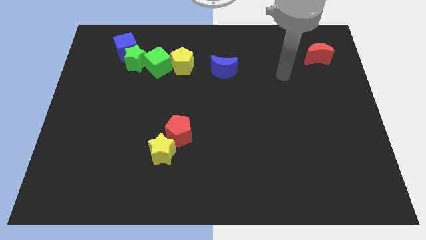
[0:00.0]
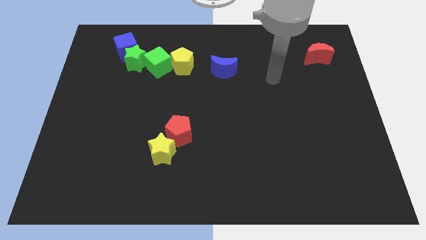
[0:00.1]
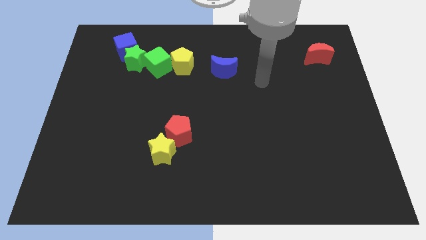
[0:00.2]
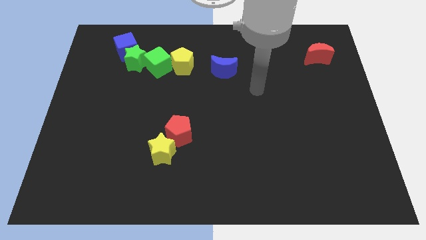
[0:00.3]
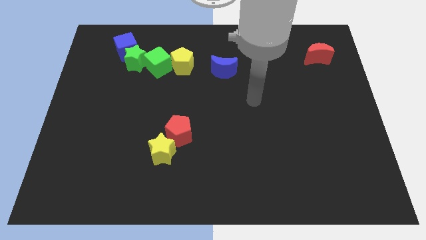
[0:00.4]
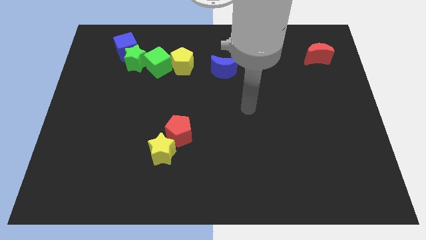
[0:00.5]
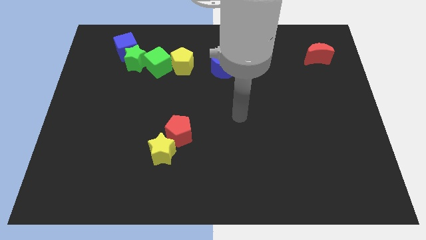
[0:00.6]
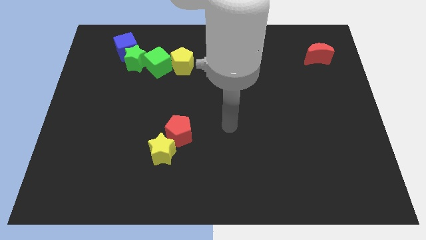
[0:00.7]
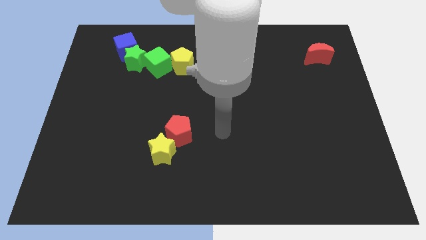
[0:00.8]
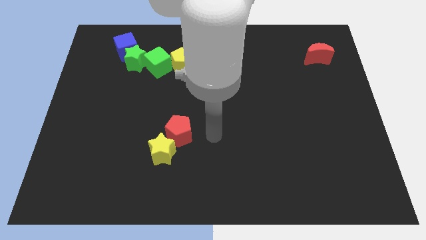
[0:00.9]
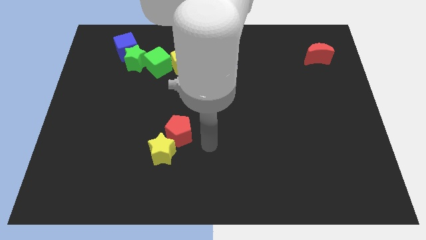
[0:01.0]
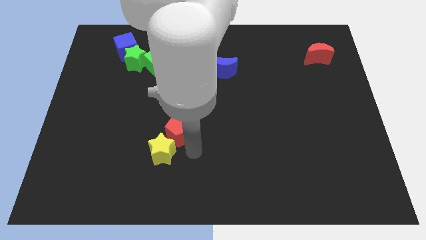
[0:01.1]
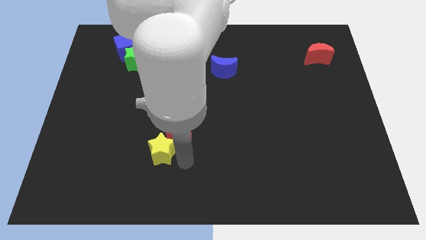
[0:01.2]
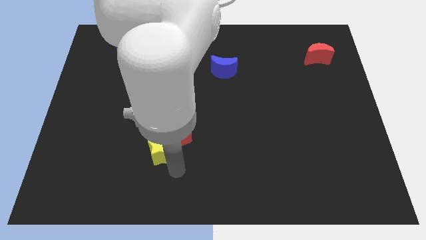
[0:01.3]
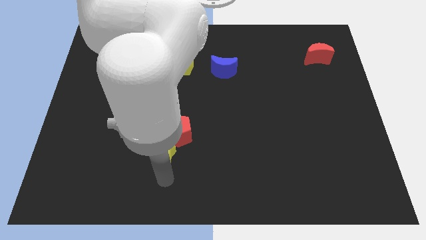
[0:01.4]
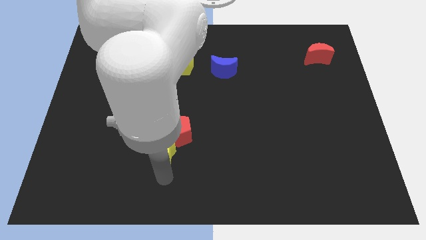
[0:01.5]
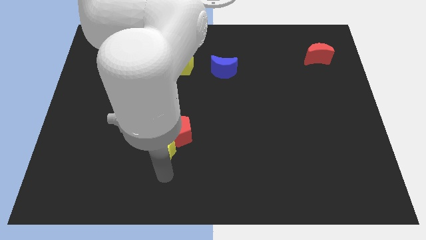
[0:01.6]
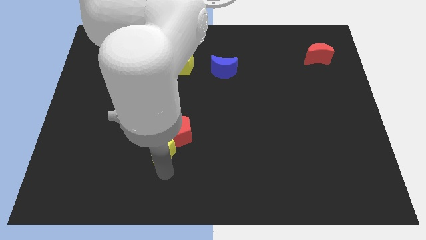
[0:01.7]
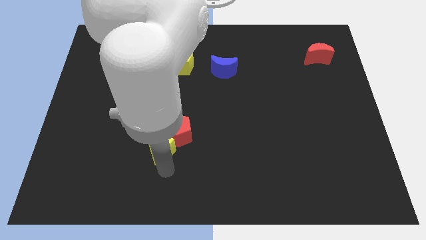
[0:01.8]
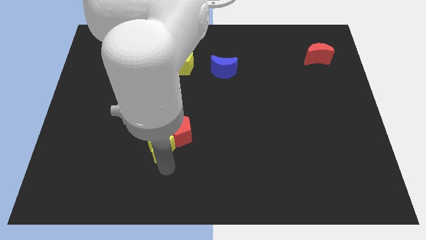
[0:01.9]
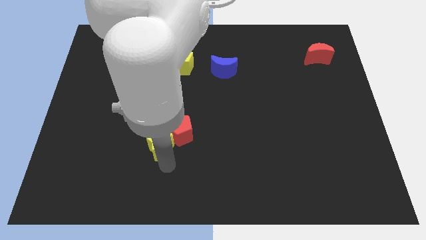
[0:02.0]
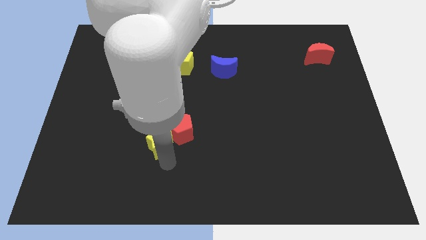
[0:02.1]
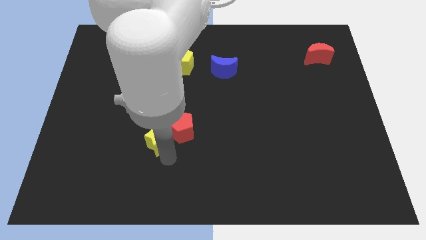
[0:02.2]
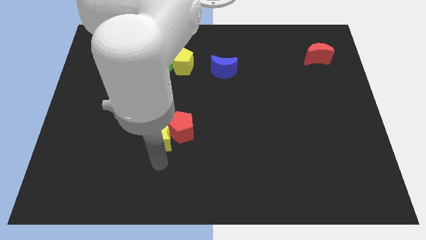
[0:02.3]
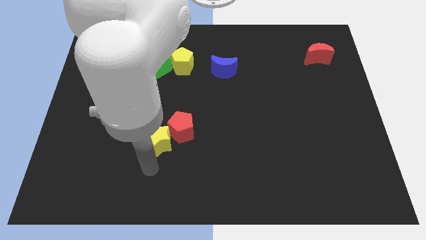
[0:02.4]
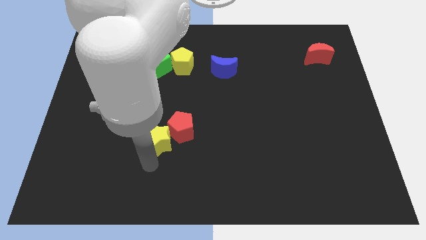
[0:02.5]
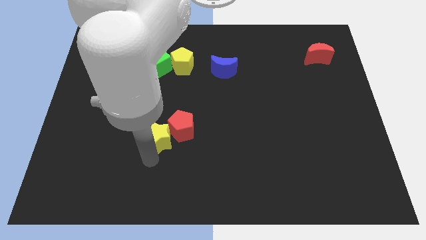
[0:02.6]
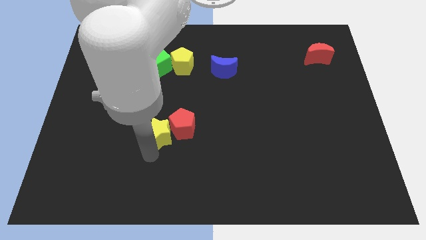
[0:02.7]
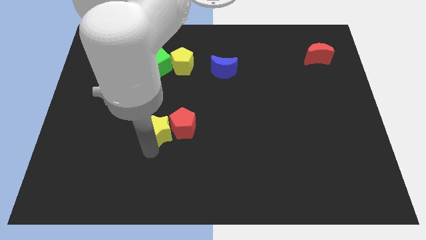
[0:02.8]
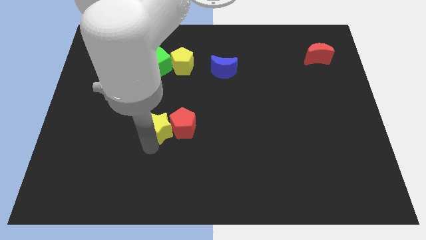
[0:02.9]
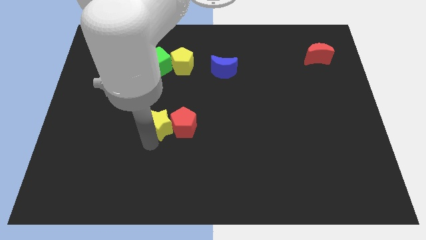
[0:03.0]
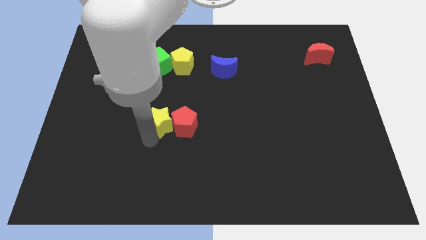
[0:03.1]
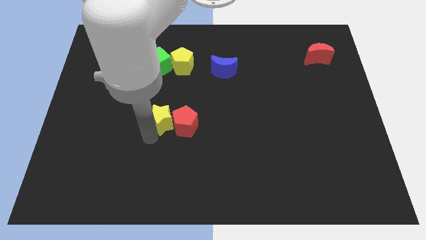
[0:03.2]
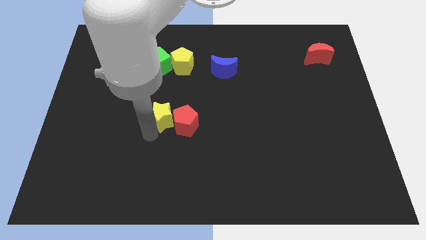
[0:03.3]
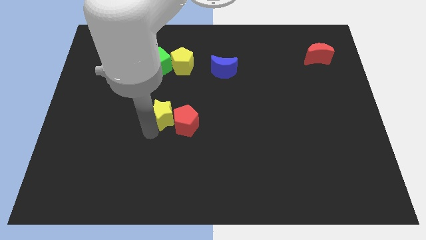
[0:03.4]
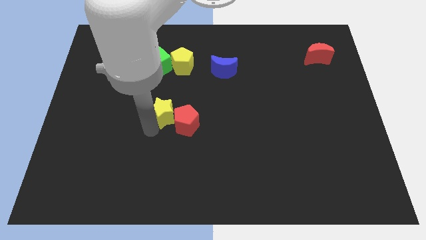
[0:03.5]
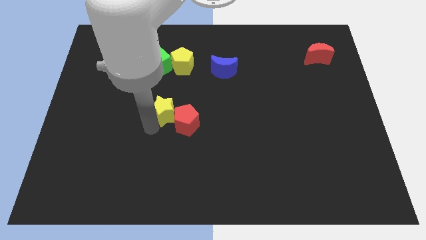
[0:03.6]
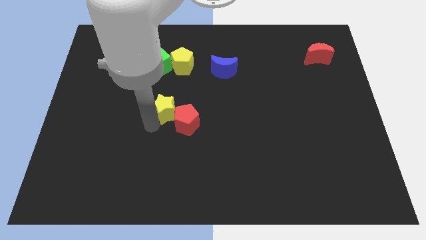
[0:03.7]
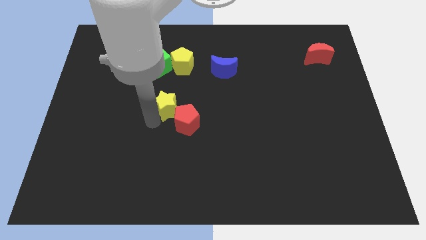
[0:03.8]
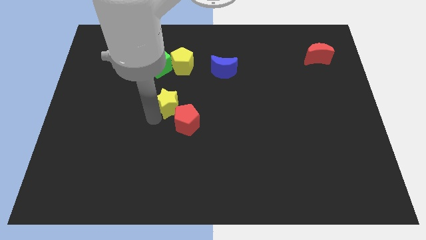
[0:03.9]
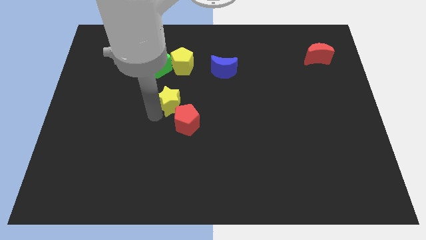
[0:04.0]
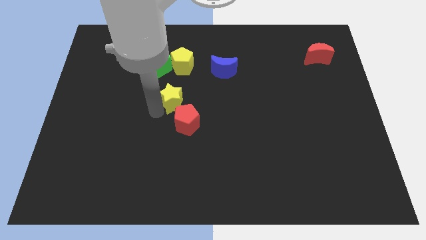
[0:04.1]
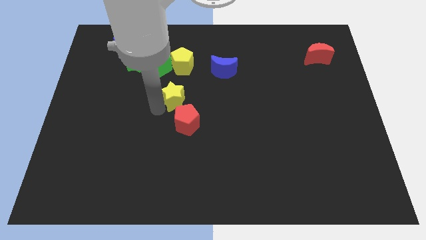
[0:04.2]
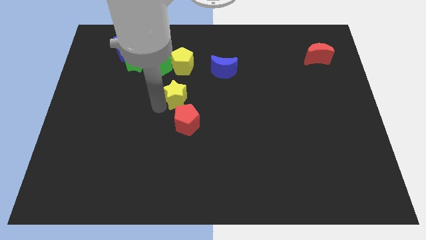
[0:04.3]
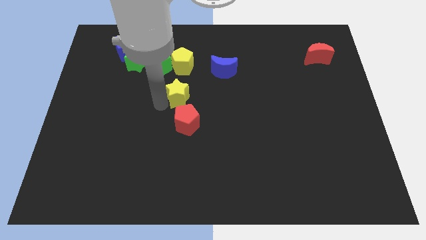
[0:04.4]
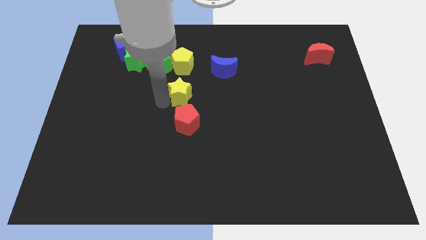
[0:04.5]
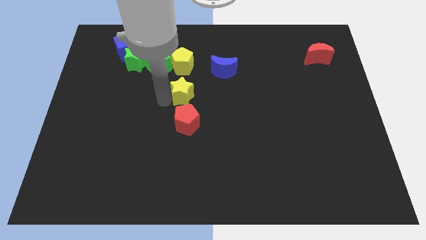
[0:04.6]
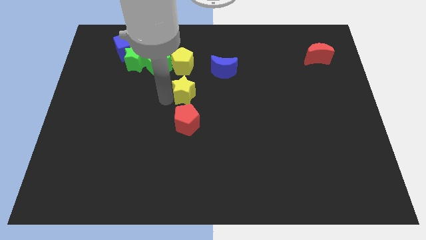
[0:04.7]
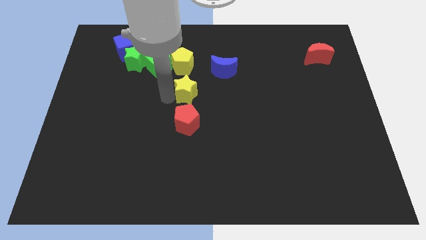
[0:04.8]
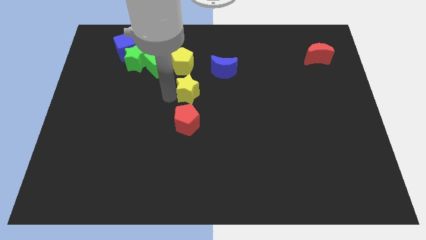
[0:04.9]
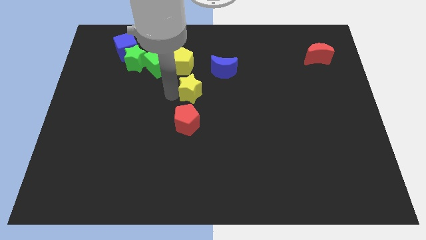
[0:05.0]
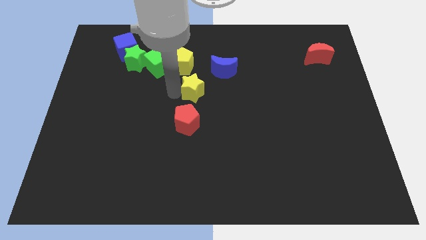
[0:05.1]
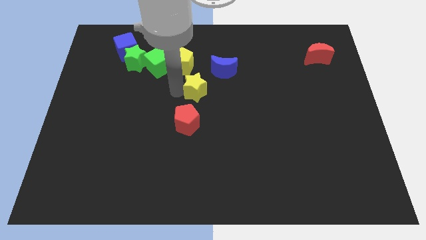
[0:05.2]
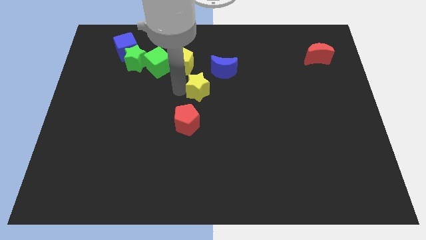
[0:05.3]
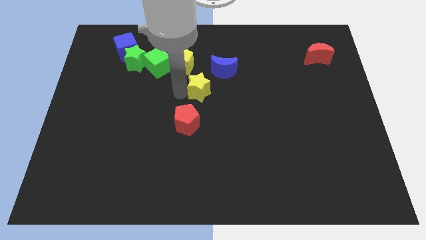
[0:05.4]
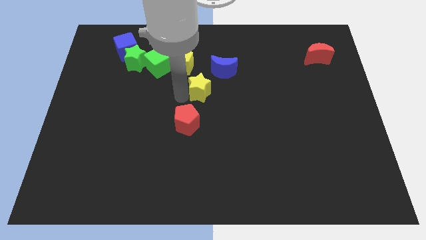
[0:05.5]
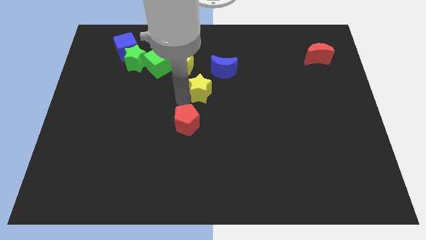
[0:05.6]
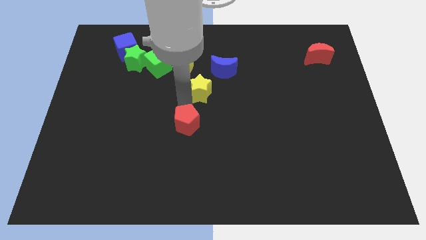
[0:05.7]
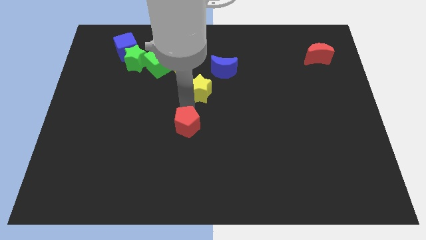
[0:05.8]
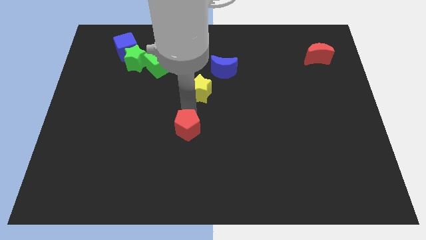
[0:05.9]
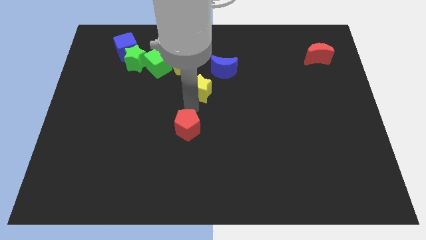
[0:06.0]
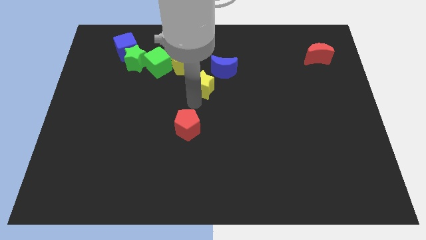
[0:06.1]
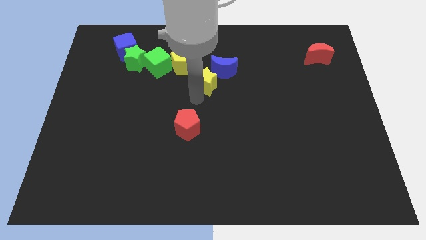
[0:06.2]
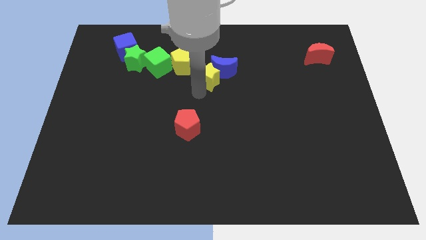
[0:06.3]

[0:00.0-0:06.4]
put the yellow star towards the blue moon

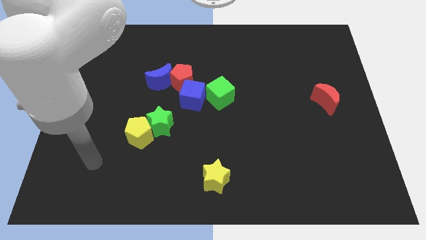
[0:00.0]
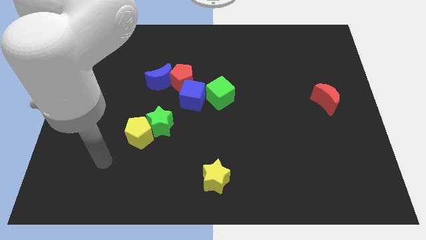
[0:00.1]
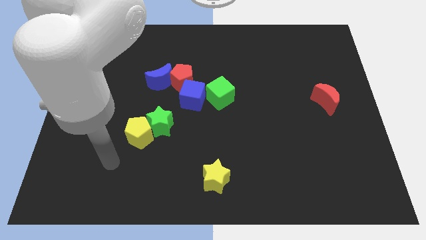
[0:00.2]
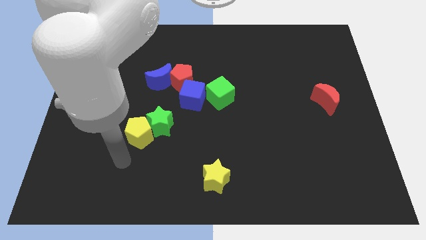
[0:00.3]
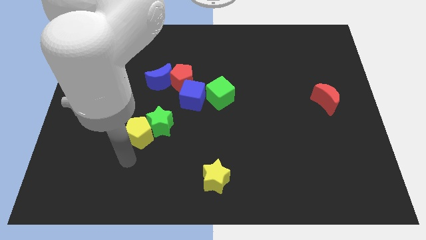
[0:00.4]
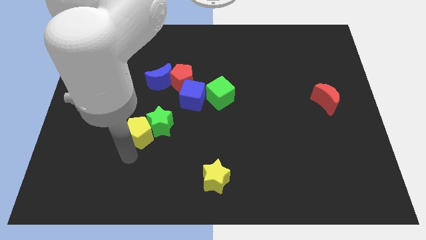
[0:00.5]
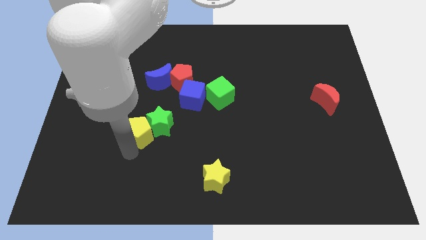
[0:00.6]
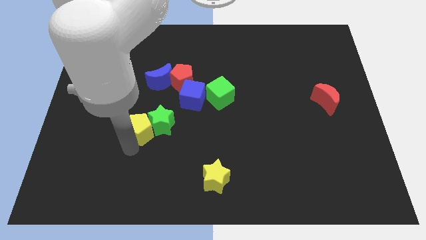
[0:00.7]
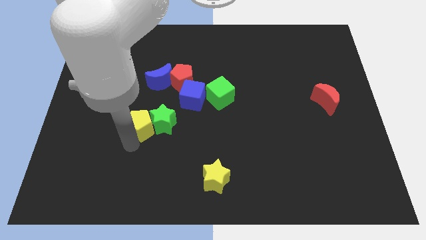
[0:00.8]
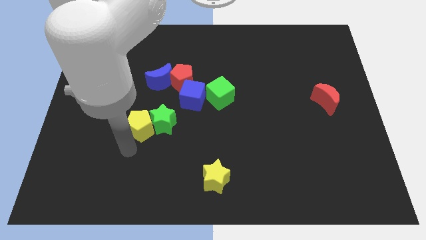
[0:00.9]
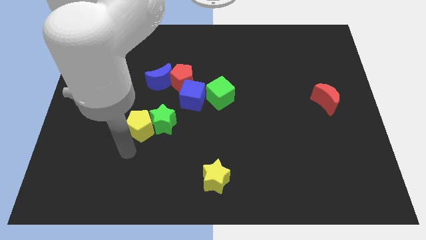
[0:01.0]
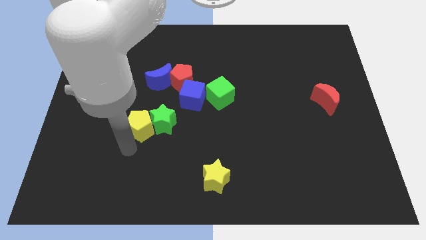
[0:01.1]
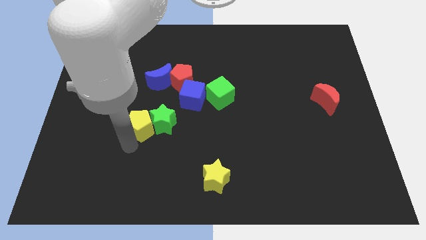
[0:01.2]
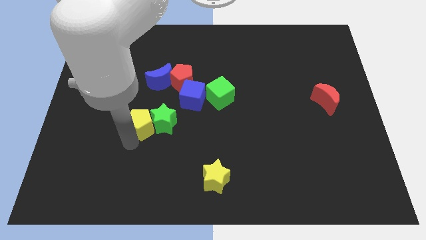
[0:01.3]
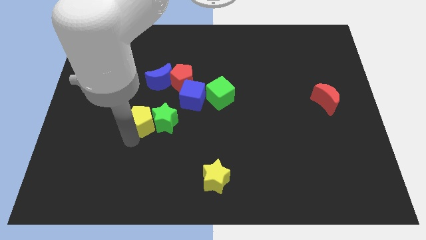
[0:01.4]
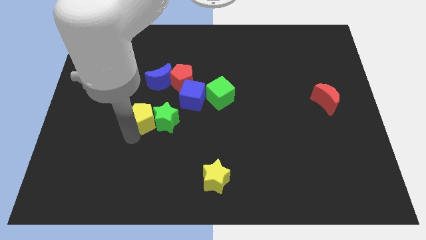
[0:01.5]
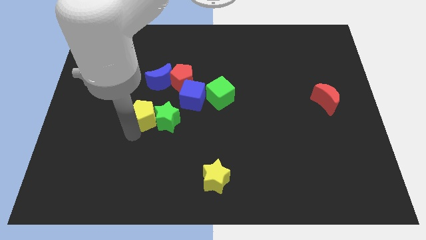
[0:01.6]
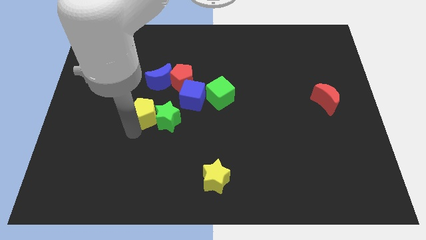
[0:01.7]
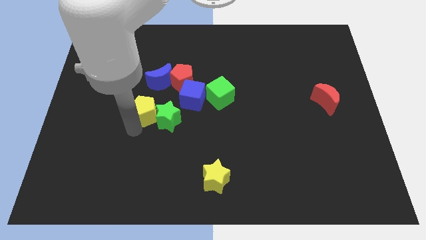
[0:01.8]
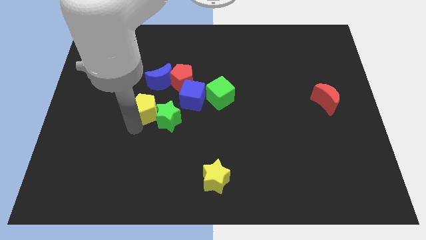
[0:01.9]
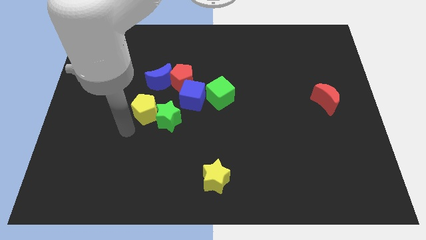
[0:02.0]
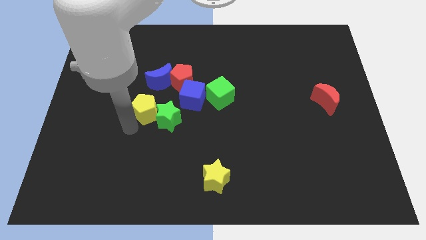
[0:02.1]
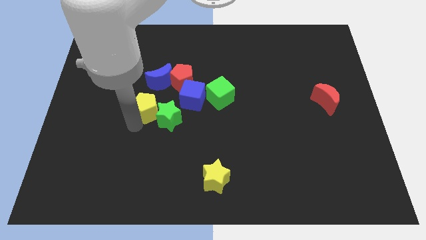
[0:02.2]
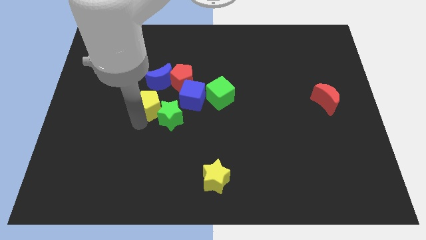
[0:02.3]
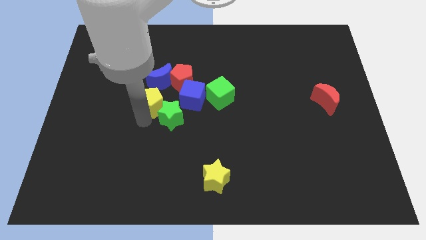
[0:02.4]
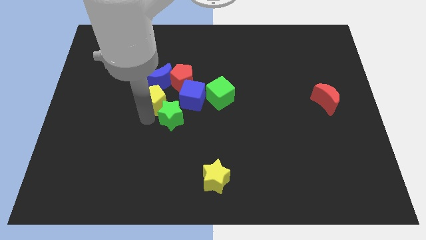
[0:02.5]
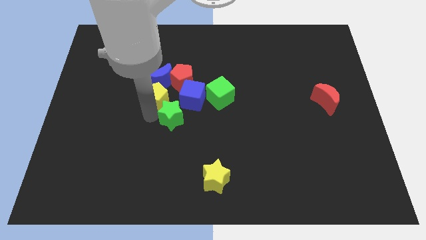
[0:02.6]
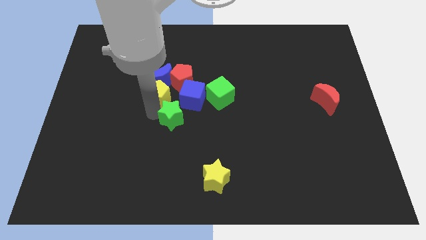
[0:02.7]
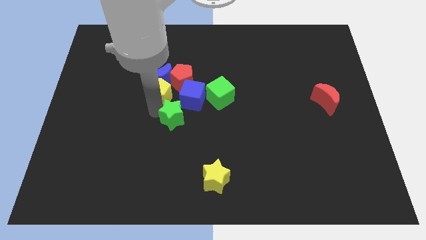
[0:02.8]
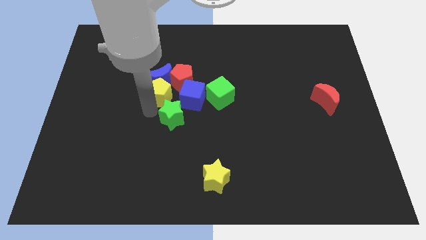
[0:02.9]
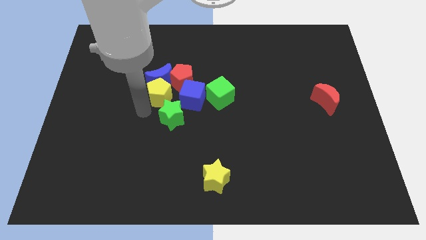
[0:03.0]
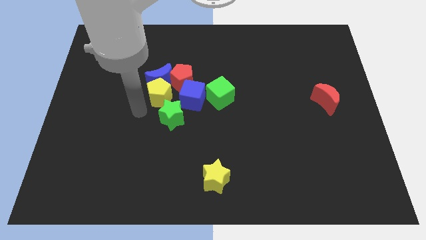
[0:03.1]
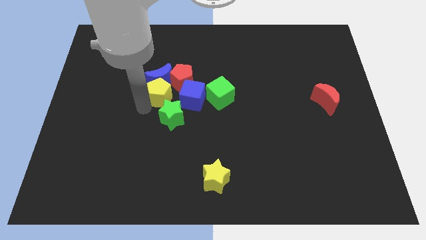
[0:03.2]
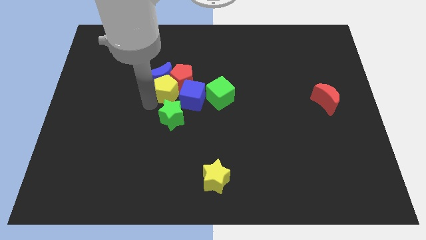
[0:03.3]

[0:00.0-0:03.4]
move the yellow pentagon to the red pentagon
